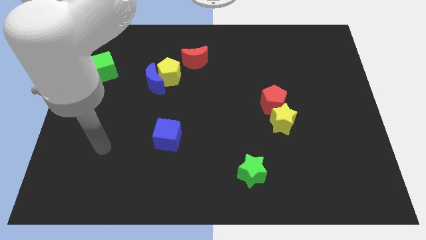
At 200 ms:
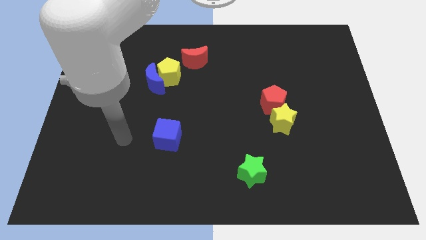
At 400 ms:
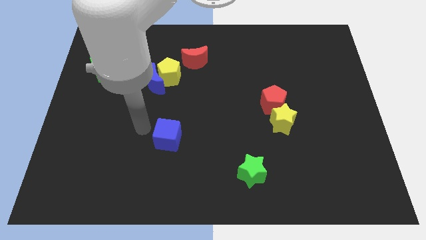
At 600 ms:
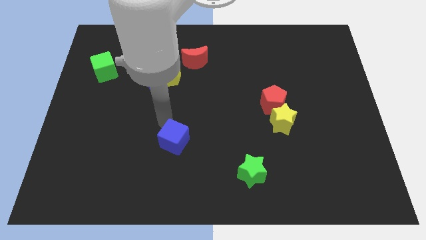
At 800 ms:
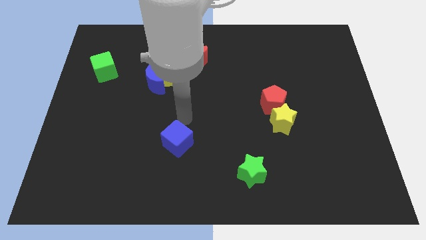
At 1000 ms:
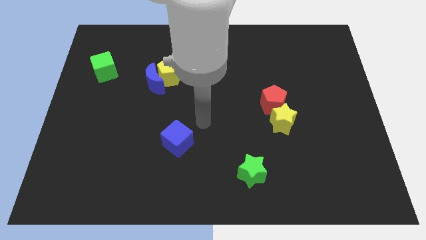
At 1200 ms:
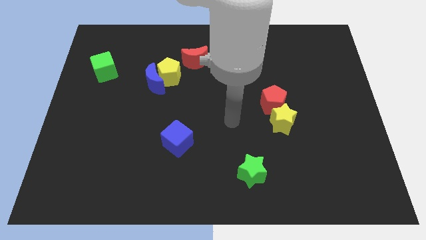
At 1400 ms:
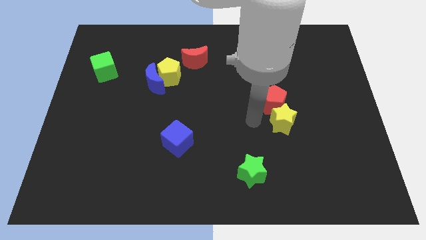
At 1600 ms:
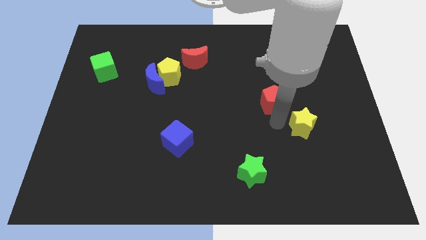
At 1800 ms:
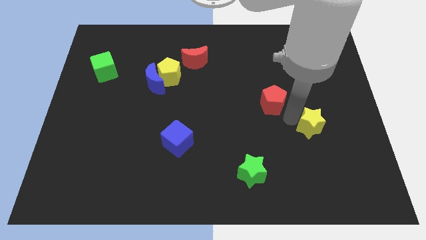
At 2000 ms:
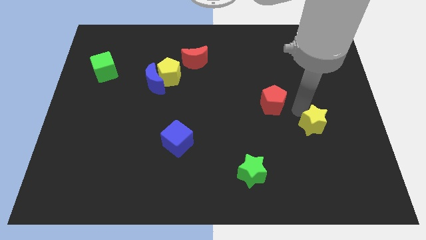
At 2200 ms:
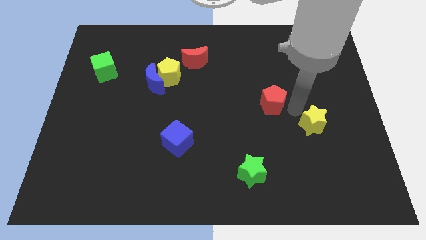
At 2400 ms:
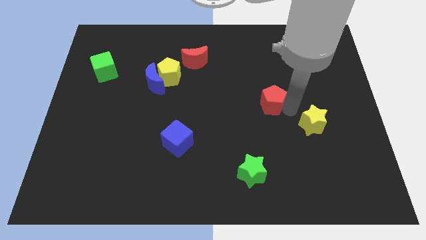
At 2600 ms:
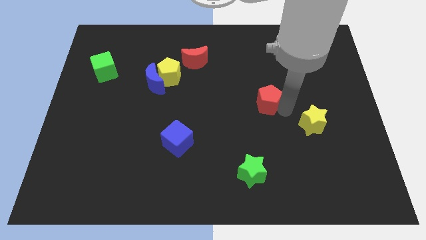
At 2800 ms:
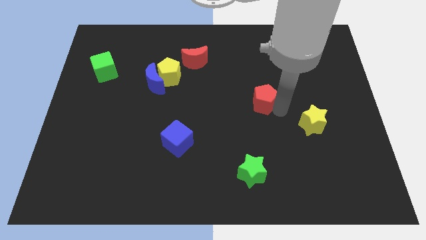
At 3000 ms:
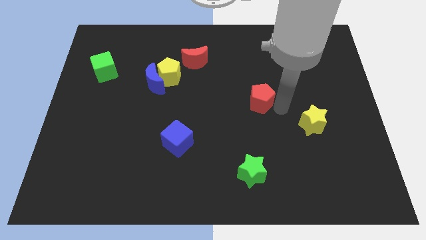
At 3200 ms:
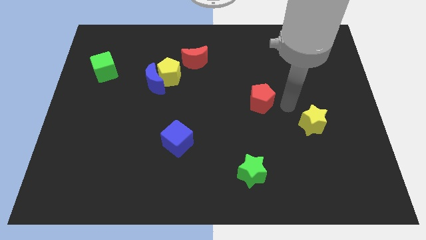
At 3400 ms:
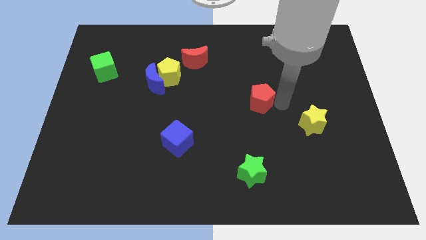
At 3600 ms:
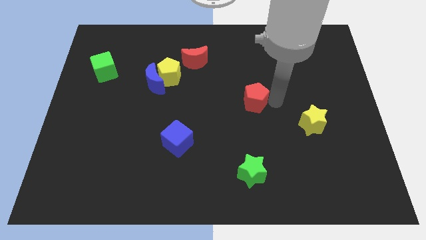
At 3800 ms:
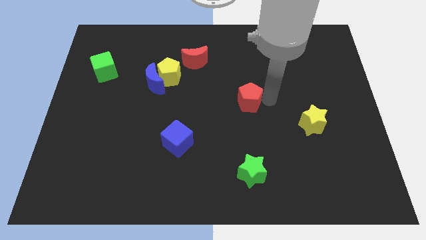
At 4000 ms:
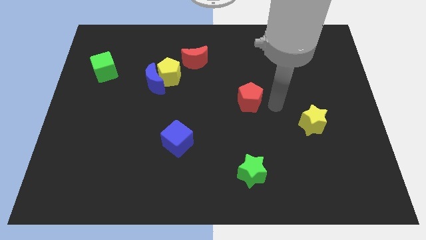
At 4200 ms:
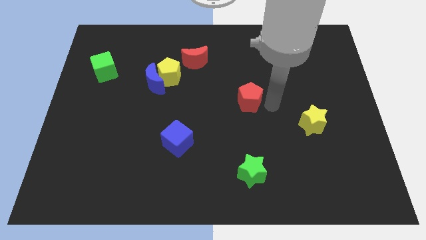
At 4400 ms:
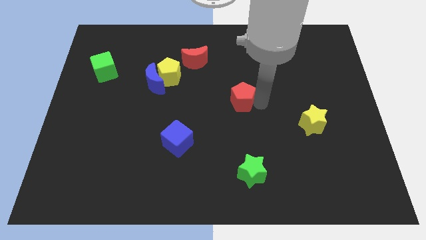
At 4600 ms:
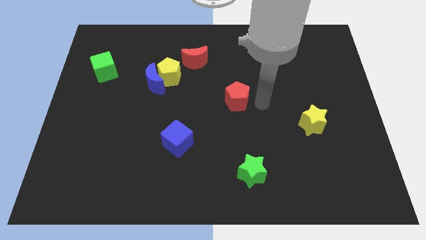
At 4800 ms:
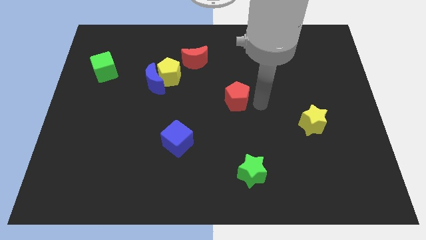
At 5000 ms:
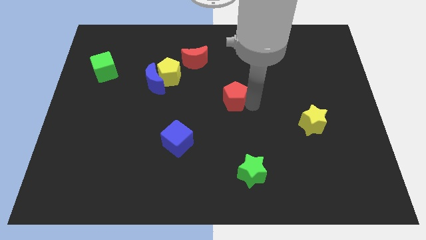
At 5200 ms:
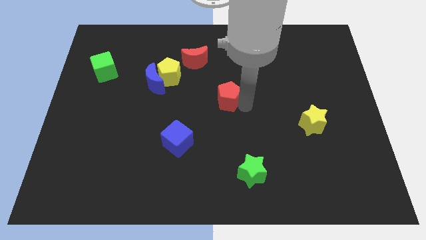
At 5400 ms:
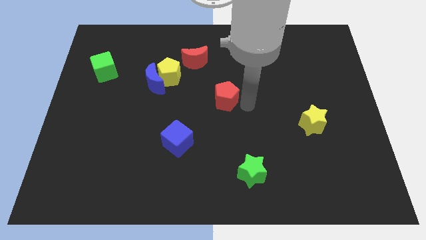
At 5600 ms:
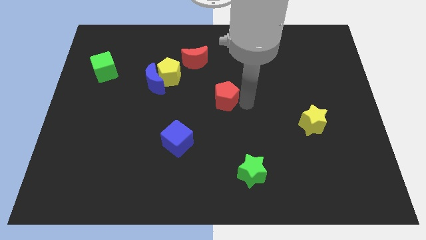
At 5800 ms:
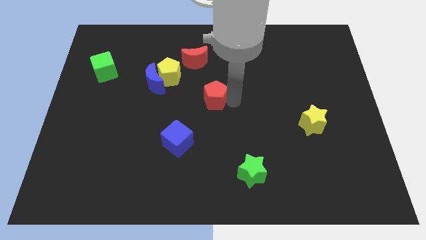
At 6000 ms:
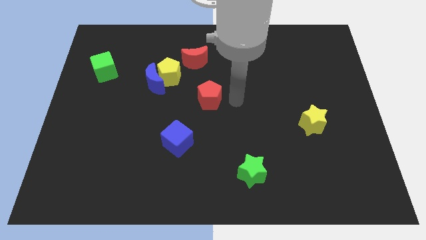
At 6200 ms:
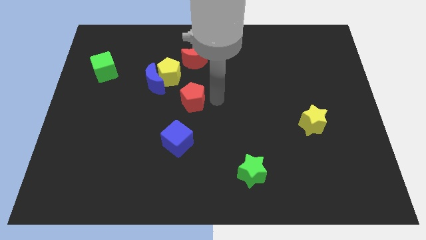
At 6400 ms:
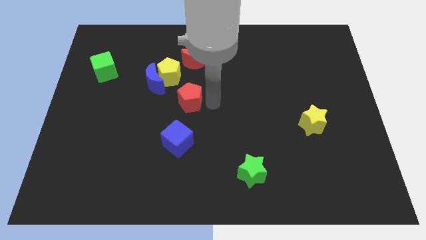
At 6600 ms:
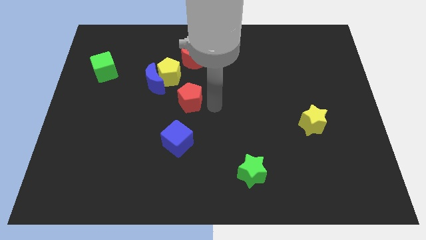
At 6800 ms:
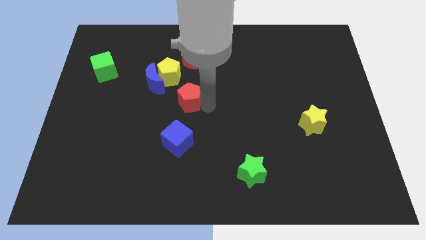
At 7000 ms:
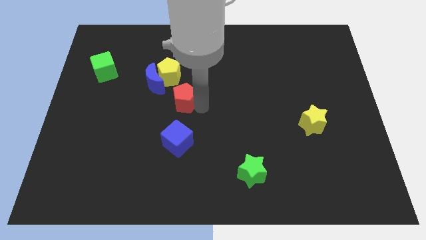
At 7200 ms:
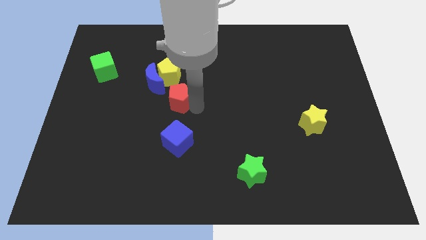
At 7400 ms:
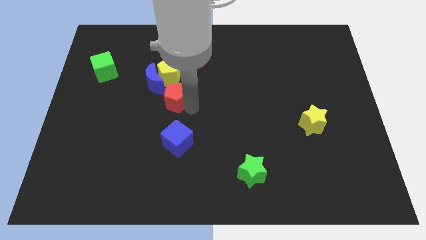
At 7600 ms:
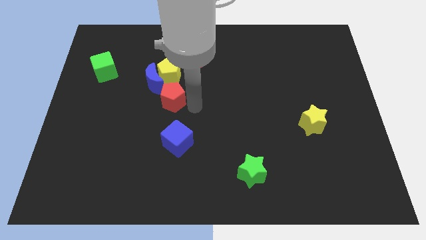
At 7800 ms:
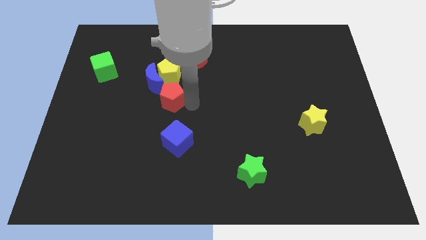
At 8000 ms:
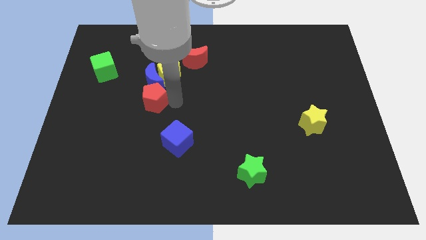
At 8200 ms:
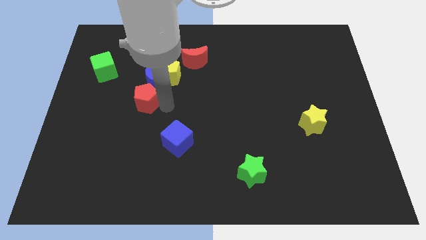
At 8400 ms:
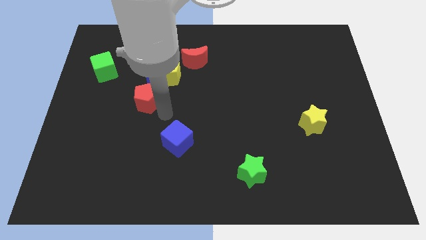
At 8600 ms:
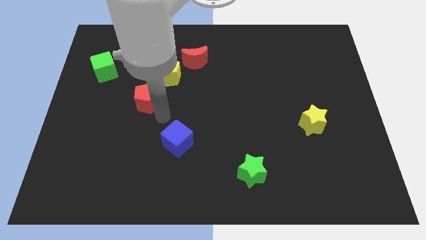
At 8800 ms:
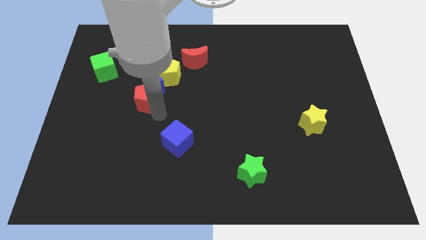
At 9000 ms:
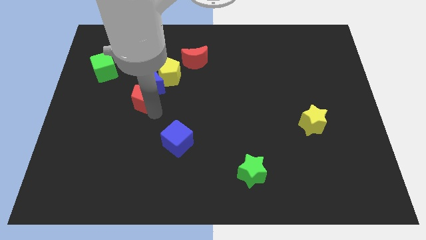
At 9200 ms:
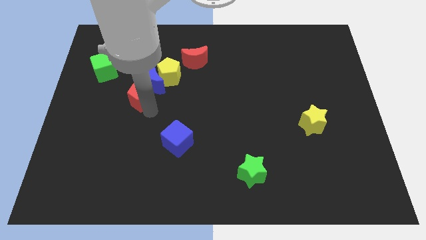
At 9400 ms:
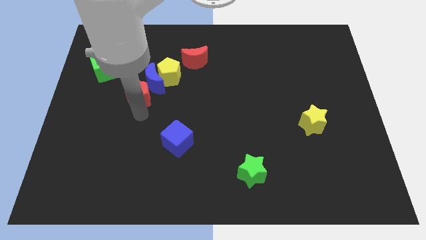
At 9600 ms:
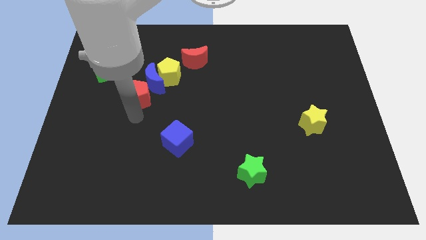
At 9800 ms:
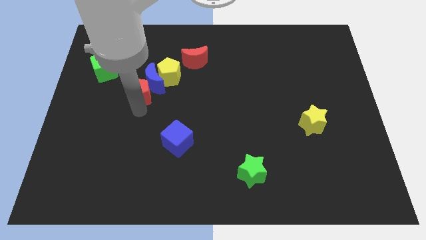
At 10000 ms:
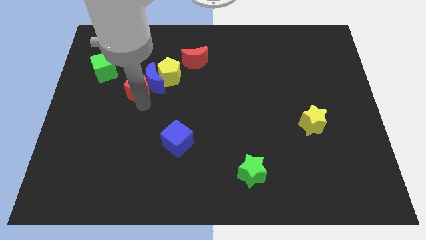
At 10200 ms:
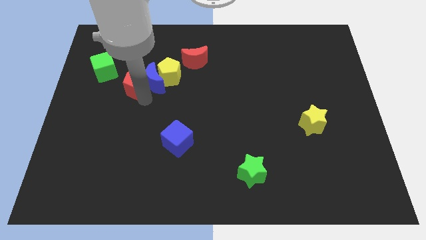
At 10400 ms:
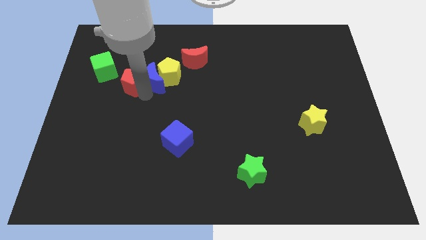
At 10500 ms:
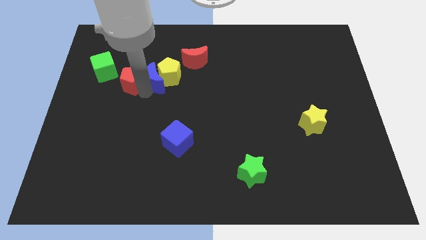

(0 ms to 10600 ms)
put the red pentagon just right of the green cube

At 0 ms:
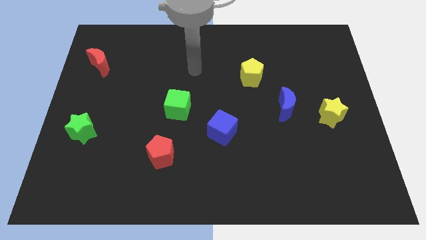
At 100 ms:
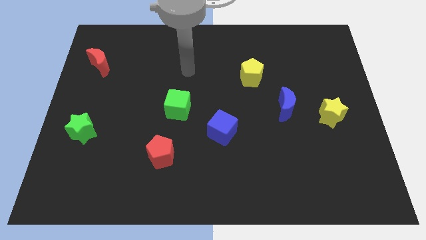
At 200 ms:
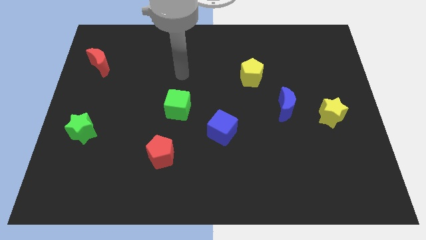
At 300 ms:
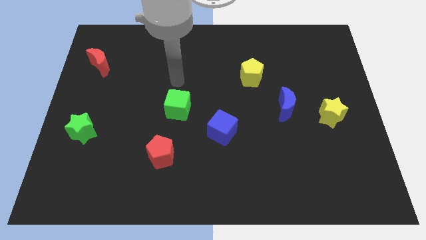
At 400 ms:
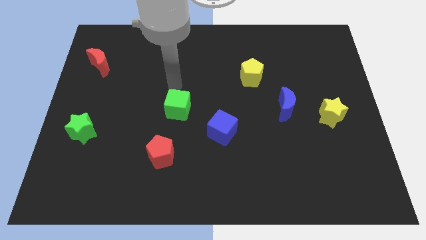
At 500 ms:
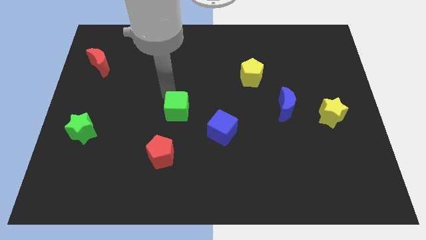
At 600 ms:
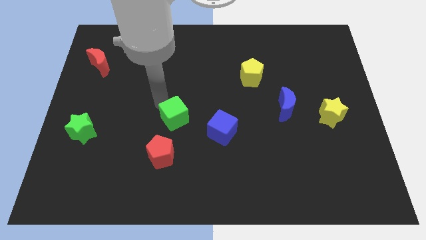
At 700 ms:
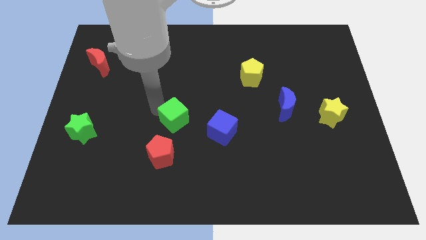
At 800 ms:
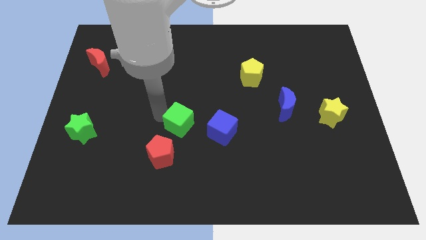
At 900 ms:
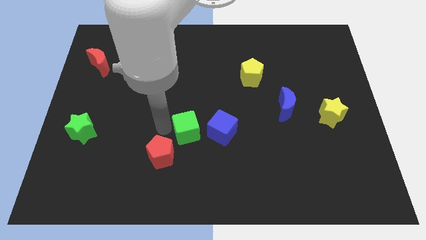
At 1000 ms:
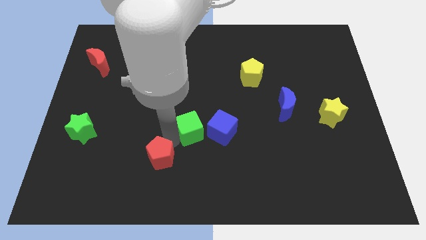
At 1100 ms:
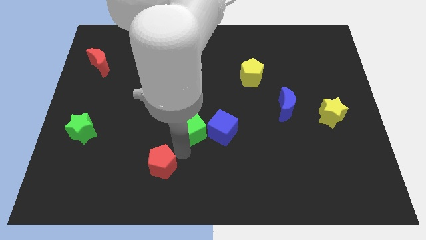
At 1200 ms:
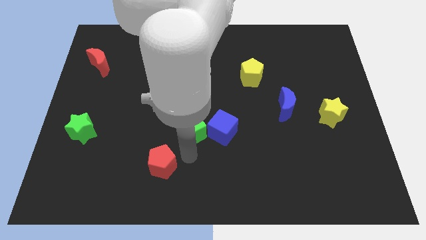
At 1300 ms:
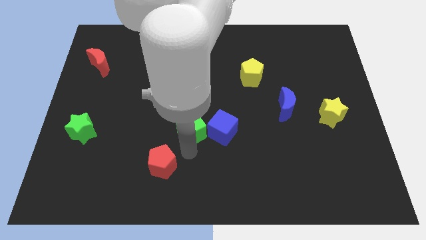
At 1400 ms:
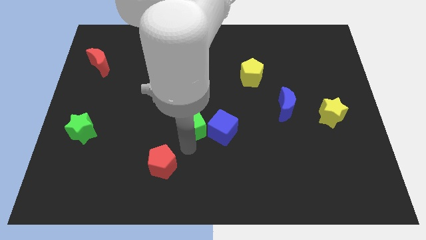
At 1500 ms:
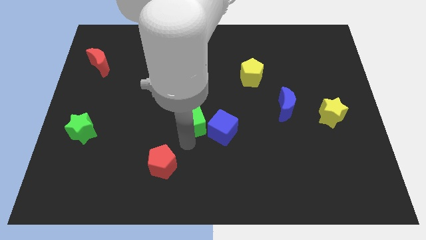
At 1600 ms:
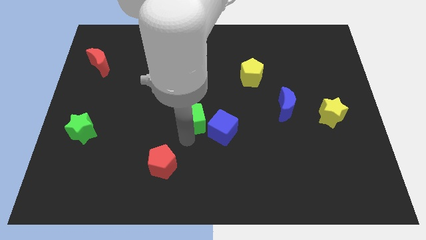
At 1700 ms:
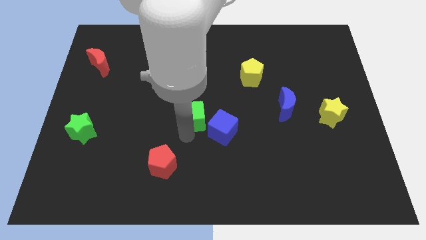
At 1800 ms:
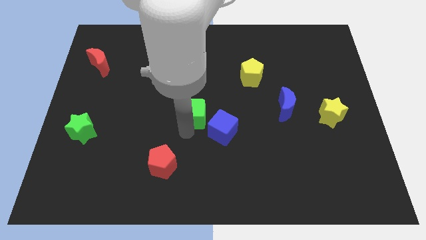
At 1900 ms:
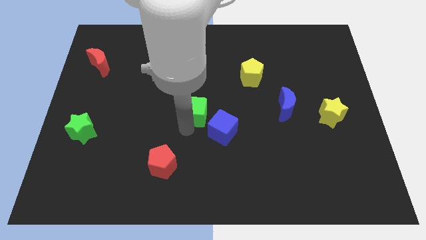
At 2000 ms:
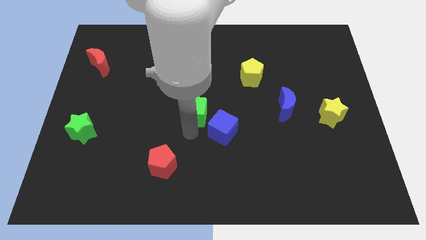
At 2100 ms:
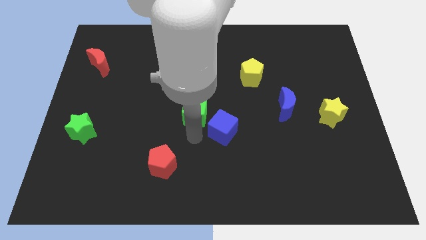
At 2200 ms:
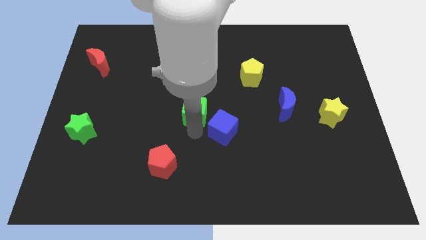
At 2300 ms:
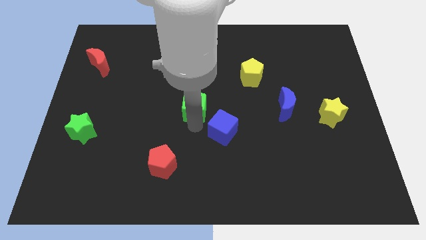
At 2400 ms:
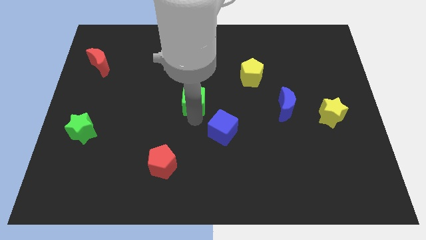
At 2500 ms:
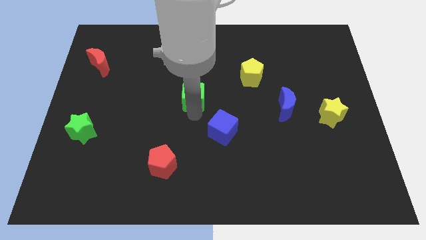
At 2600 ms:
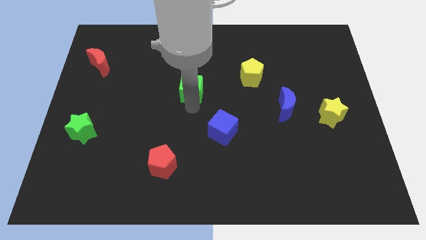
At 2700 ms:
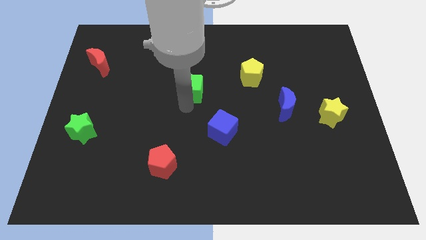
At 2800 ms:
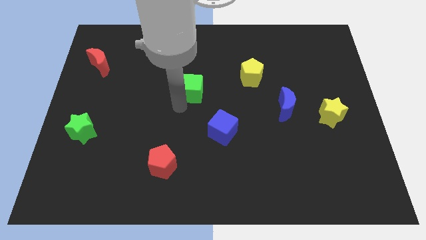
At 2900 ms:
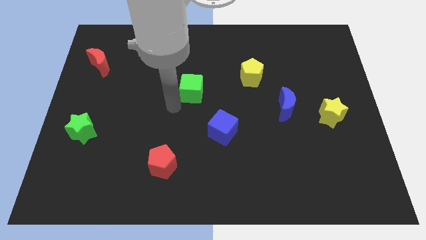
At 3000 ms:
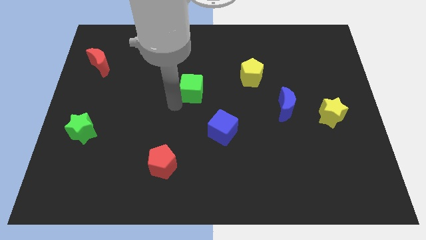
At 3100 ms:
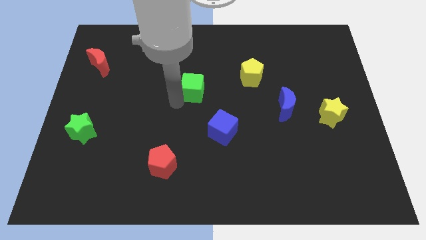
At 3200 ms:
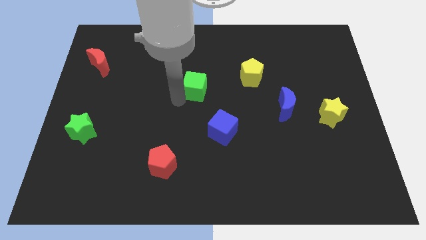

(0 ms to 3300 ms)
put the green cube just left of the yellow pentagon
